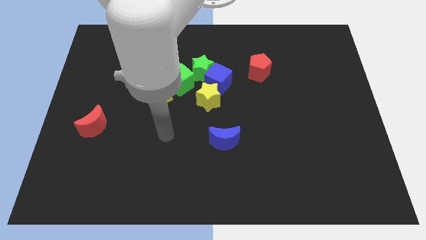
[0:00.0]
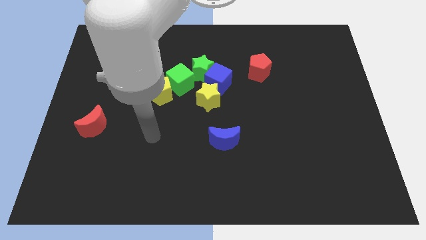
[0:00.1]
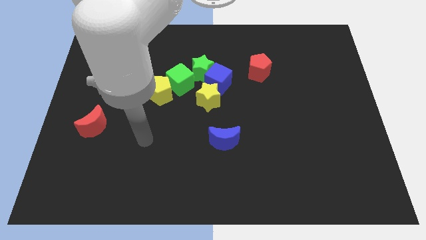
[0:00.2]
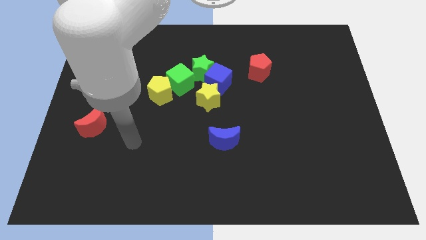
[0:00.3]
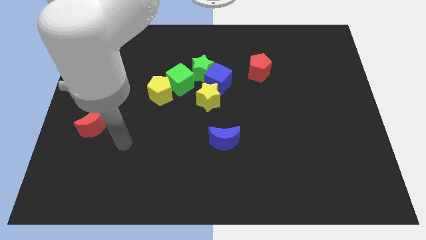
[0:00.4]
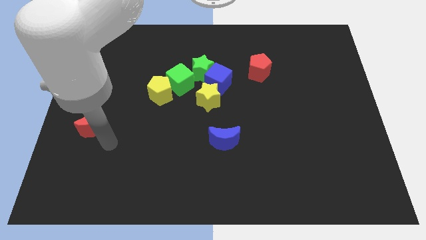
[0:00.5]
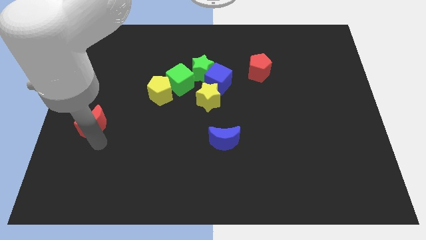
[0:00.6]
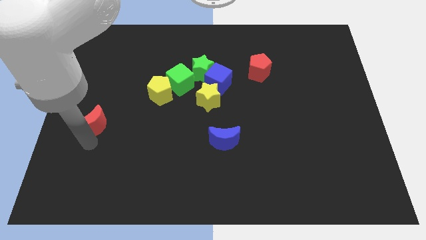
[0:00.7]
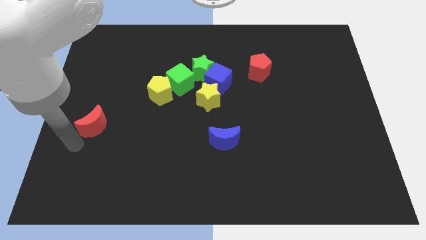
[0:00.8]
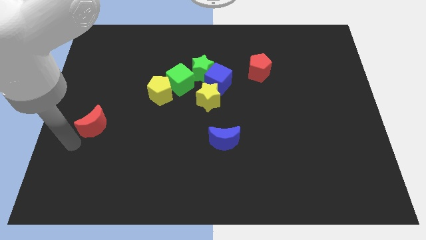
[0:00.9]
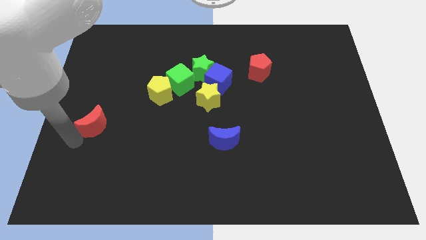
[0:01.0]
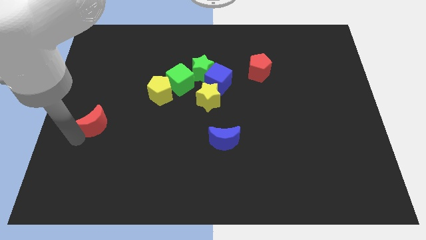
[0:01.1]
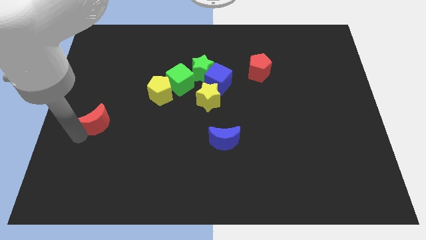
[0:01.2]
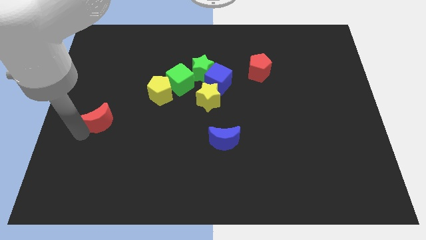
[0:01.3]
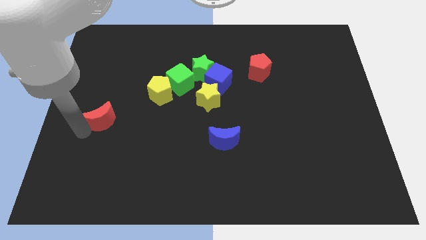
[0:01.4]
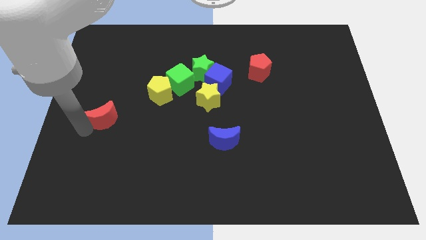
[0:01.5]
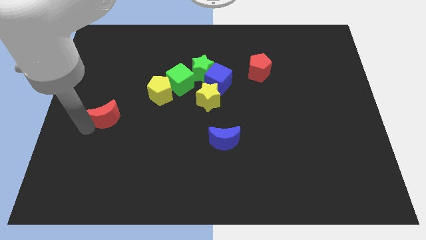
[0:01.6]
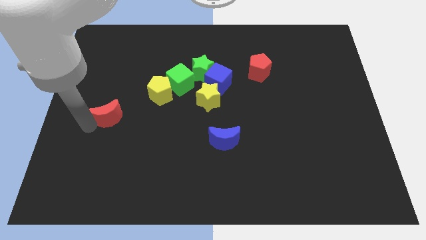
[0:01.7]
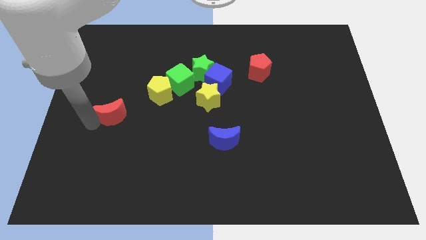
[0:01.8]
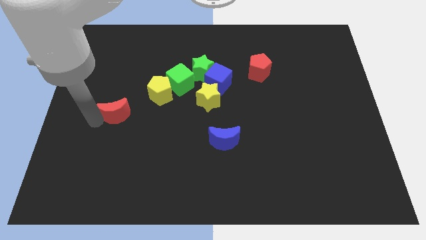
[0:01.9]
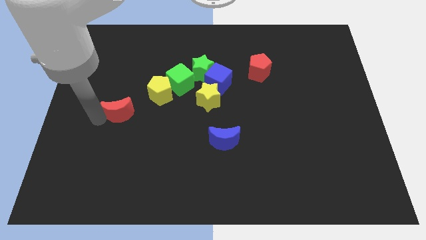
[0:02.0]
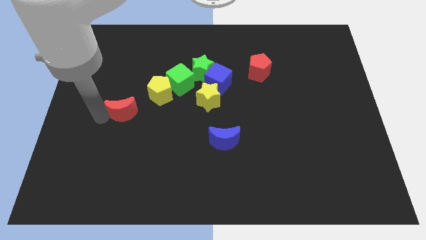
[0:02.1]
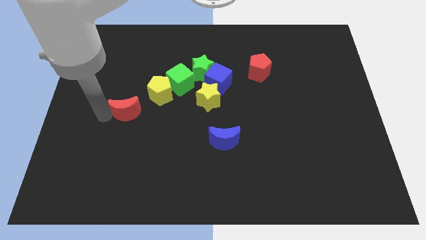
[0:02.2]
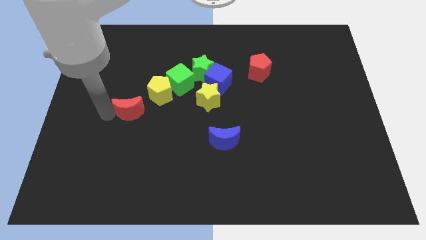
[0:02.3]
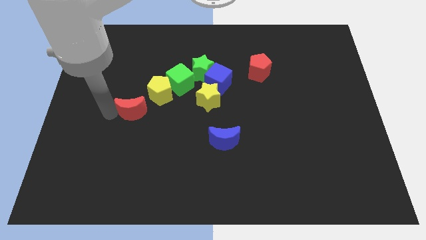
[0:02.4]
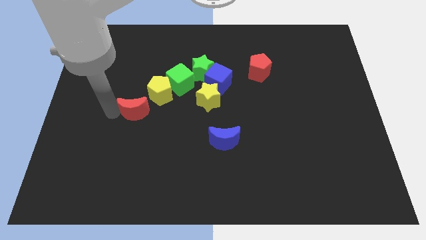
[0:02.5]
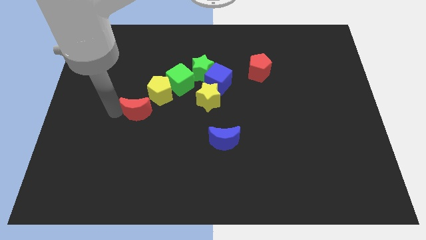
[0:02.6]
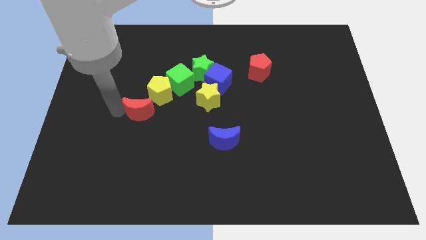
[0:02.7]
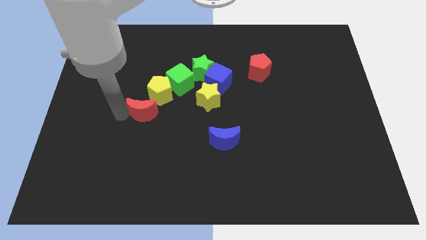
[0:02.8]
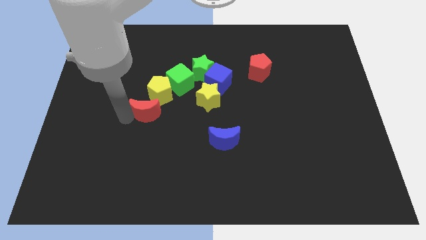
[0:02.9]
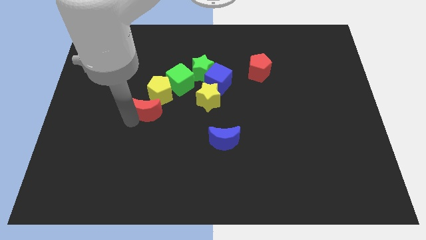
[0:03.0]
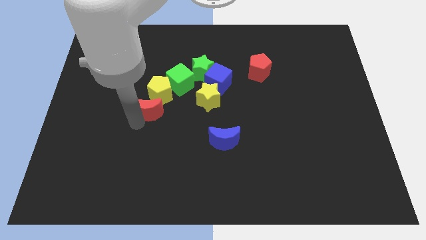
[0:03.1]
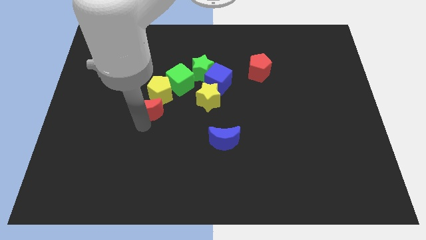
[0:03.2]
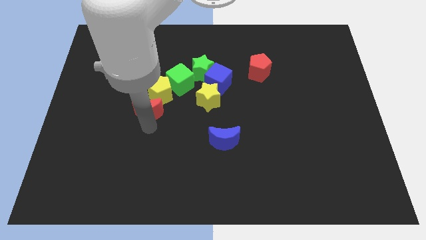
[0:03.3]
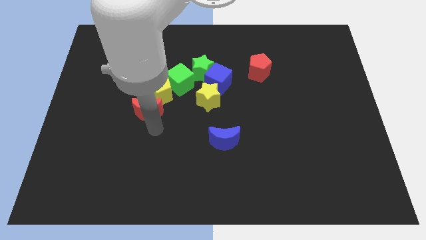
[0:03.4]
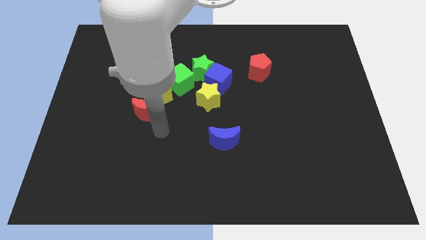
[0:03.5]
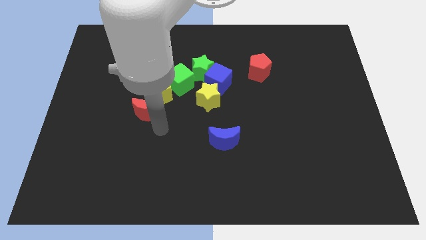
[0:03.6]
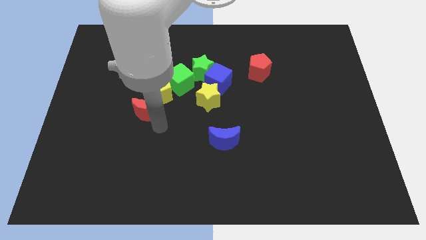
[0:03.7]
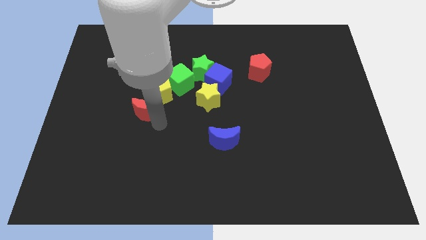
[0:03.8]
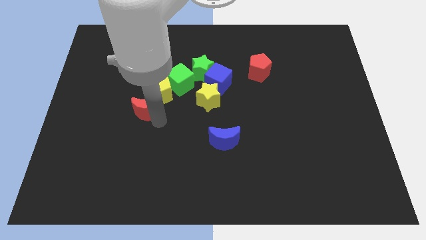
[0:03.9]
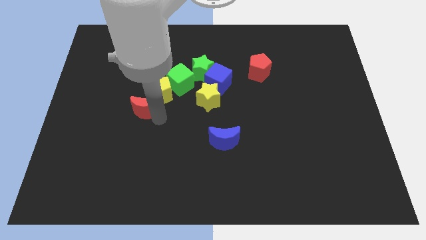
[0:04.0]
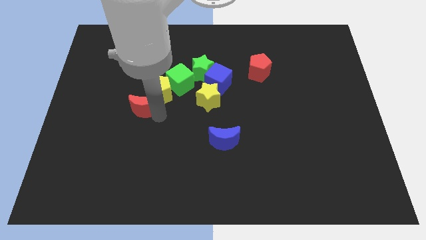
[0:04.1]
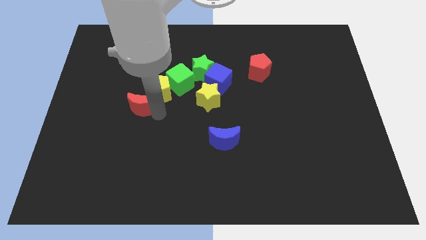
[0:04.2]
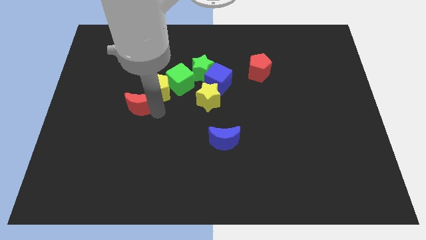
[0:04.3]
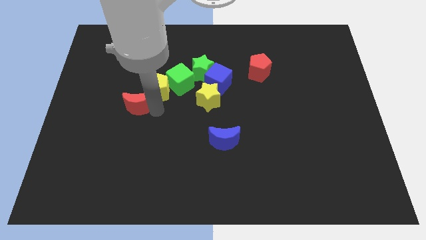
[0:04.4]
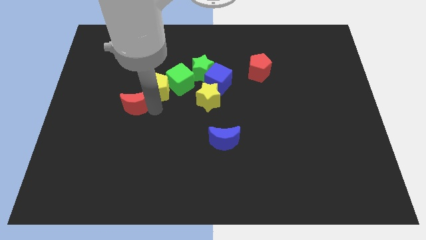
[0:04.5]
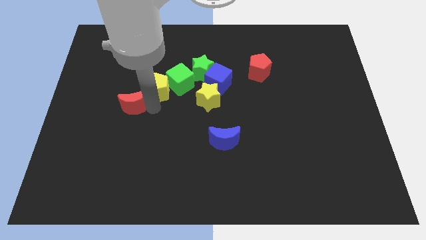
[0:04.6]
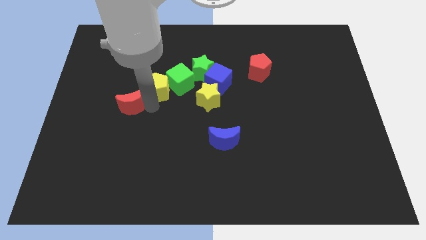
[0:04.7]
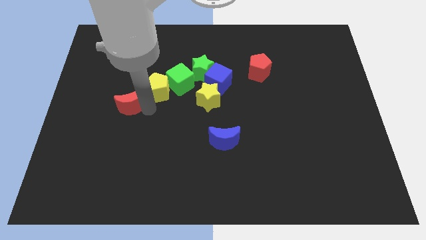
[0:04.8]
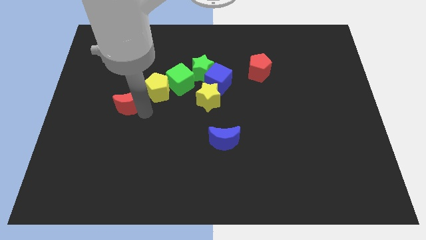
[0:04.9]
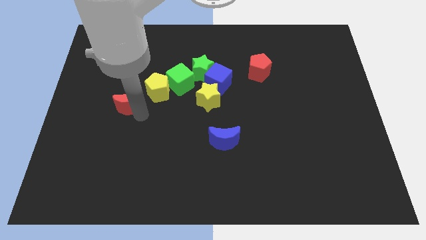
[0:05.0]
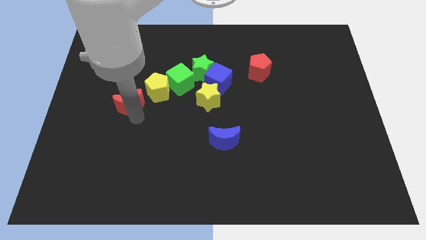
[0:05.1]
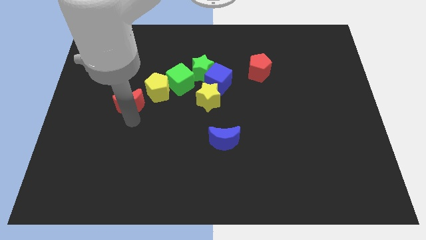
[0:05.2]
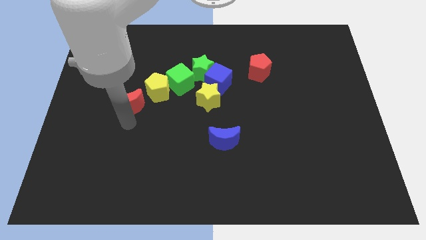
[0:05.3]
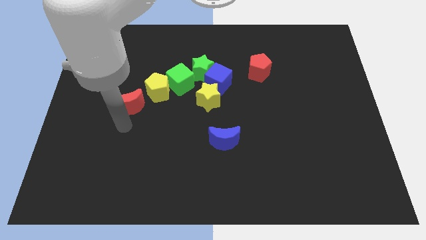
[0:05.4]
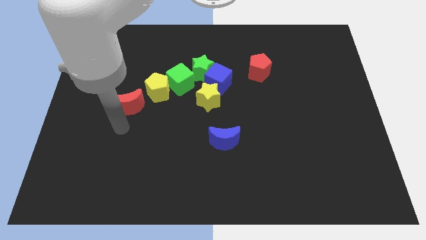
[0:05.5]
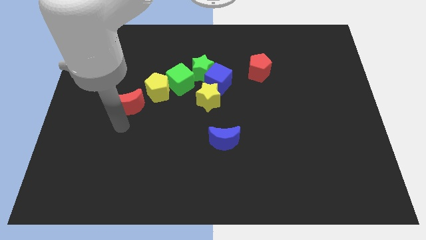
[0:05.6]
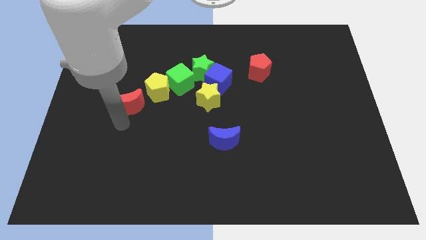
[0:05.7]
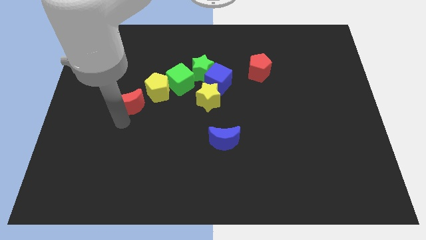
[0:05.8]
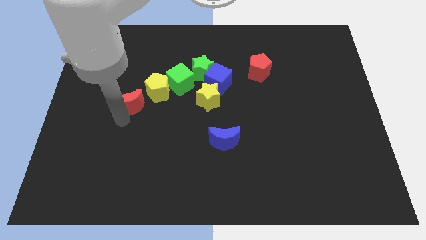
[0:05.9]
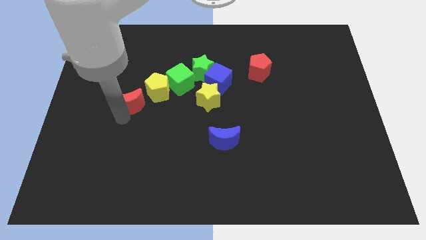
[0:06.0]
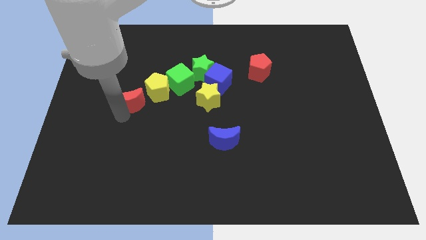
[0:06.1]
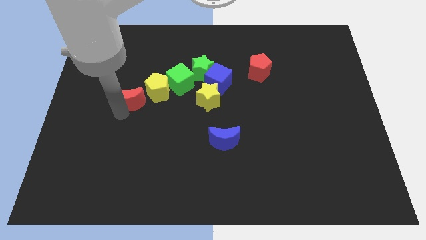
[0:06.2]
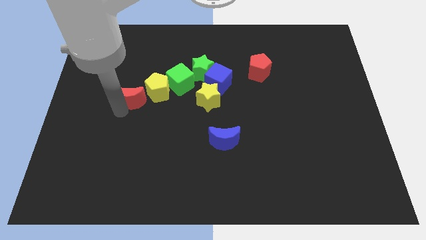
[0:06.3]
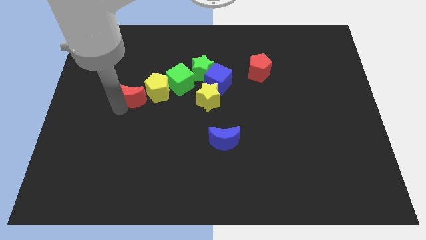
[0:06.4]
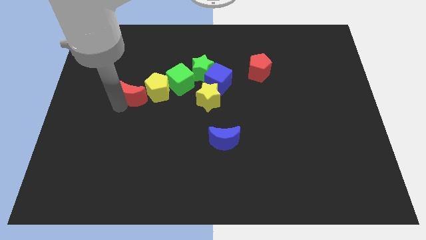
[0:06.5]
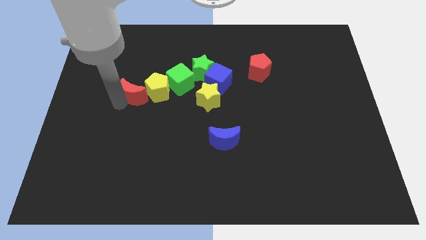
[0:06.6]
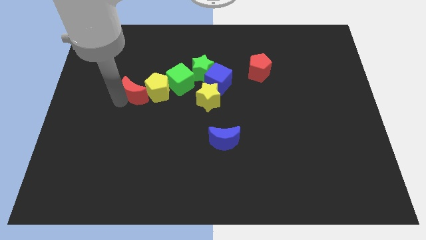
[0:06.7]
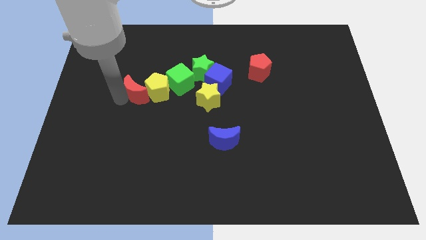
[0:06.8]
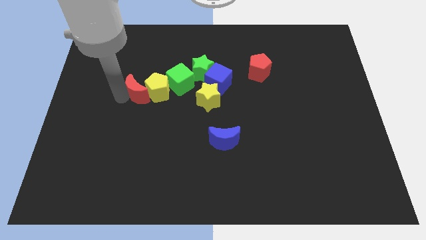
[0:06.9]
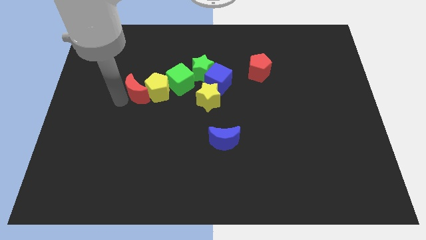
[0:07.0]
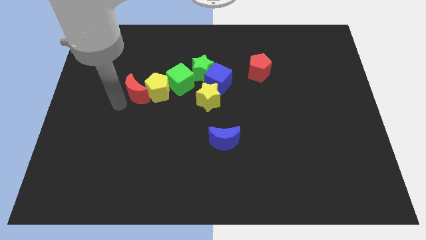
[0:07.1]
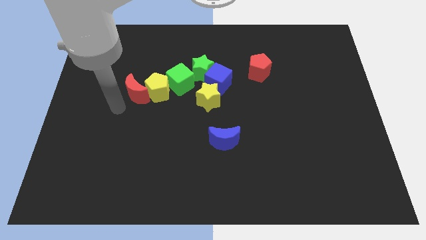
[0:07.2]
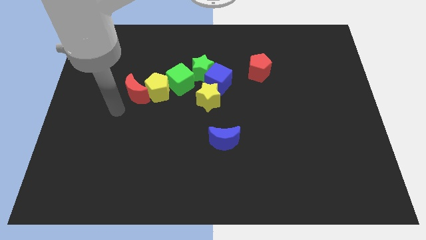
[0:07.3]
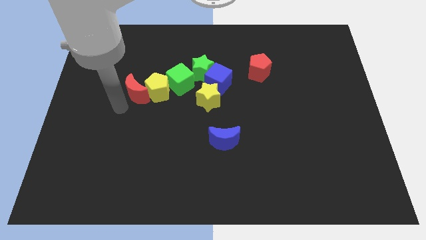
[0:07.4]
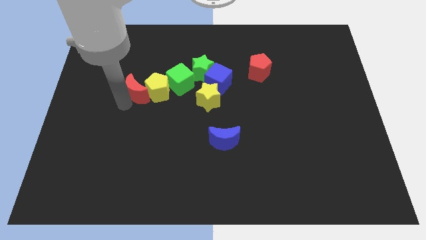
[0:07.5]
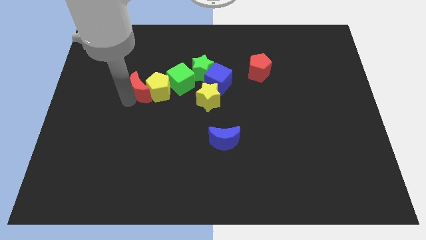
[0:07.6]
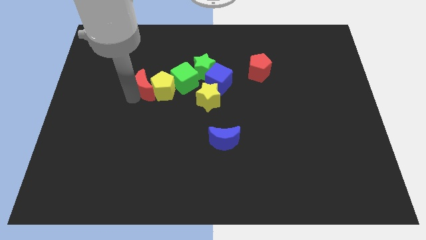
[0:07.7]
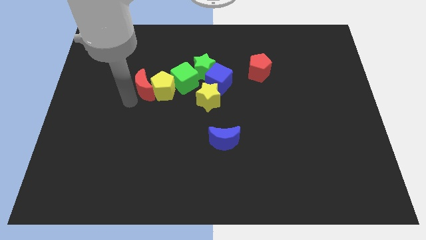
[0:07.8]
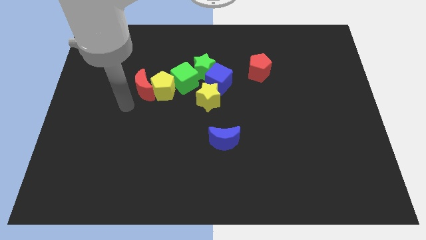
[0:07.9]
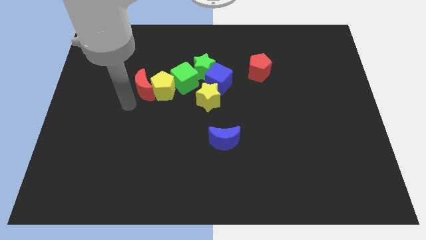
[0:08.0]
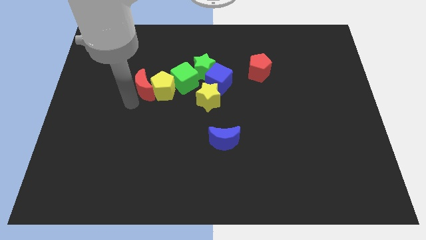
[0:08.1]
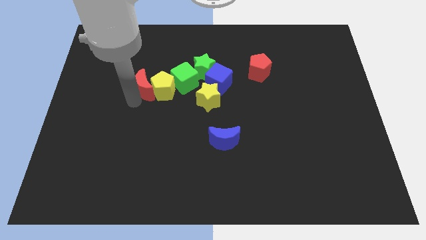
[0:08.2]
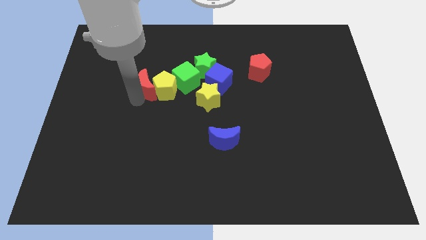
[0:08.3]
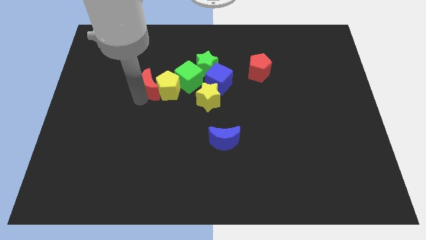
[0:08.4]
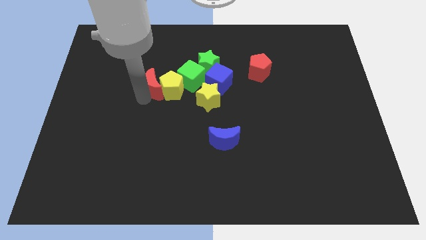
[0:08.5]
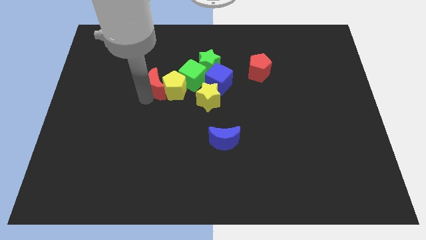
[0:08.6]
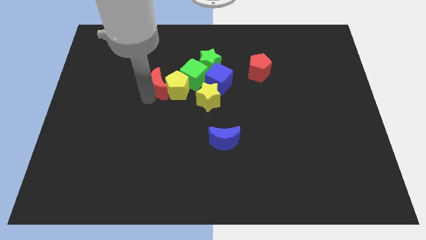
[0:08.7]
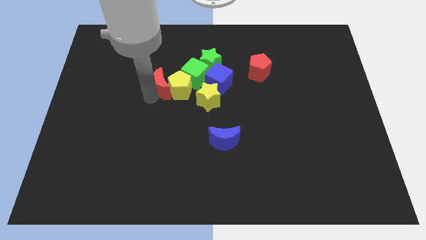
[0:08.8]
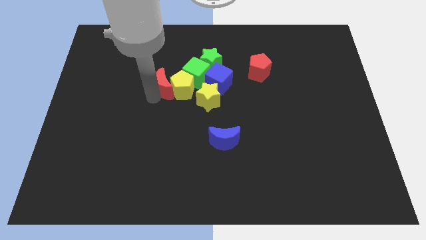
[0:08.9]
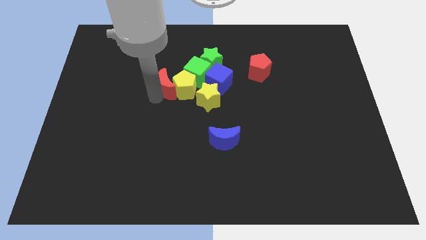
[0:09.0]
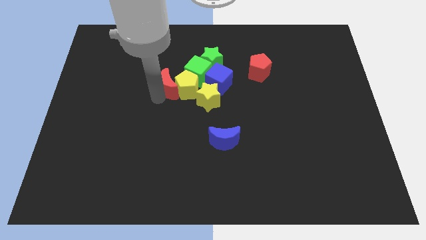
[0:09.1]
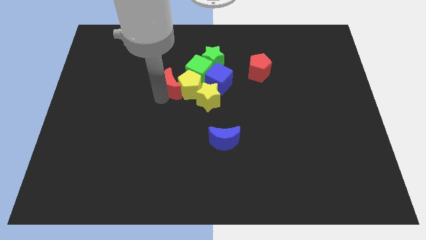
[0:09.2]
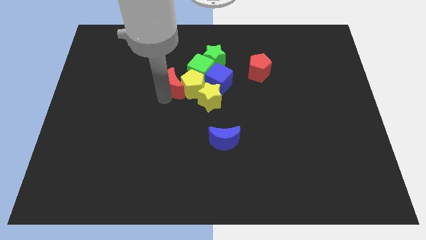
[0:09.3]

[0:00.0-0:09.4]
move the red moon diagonally upwards and to the right
